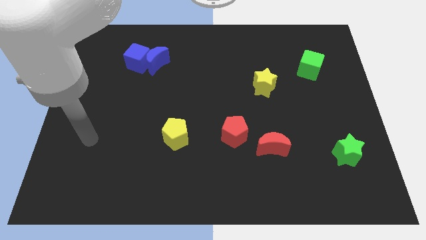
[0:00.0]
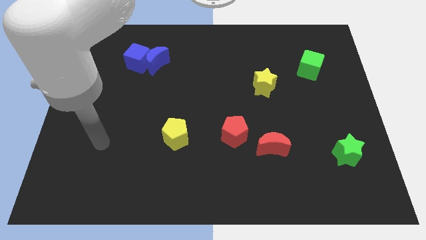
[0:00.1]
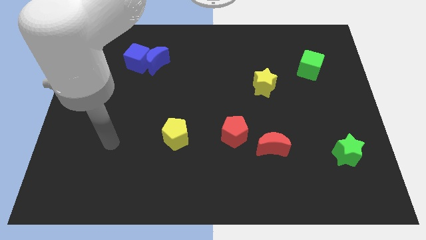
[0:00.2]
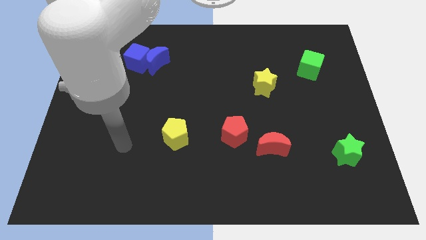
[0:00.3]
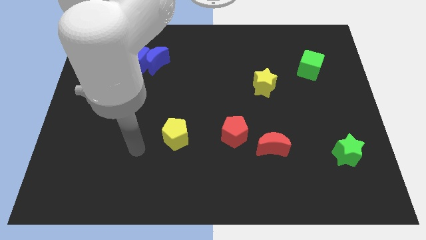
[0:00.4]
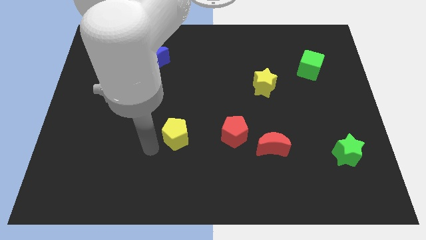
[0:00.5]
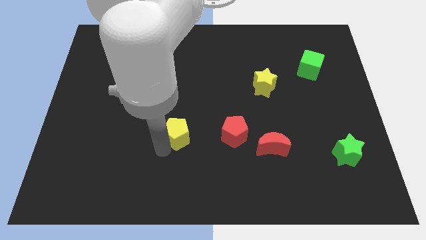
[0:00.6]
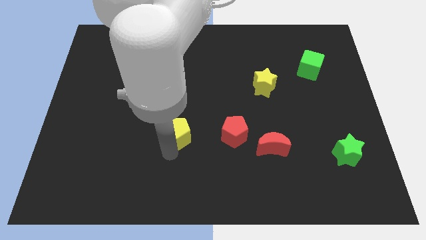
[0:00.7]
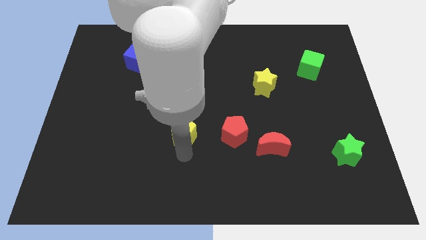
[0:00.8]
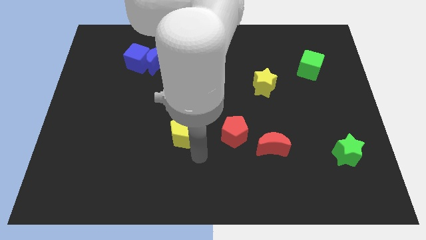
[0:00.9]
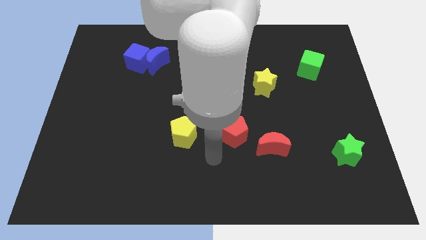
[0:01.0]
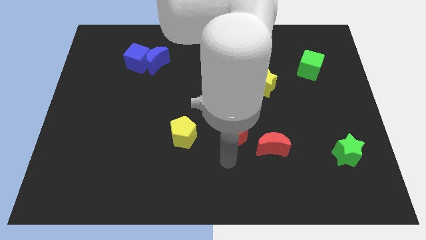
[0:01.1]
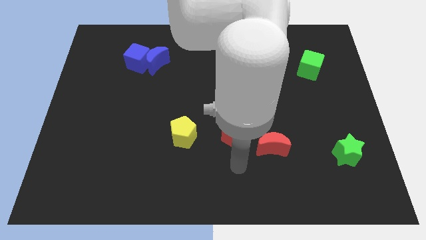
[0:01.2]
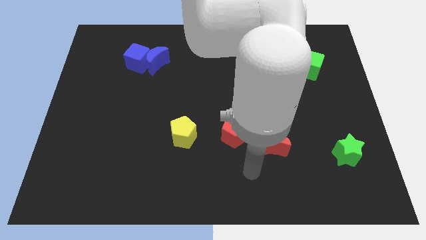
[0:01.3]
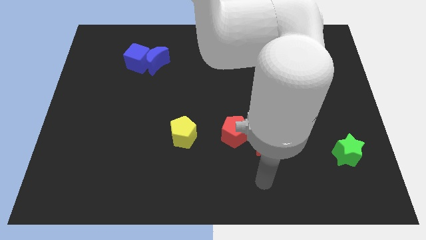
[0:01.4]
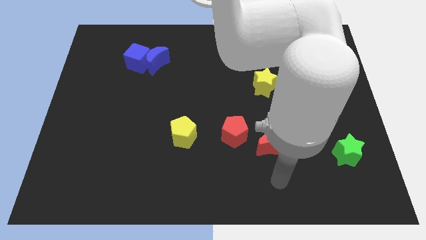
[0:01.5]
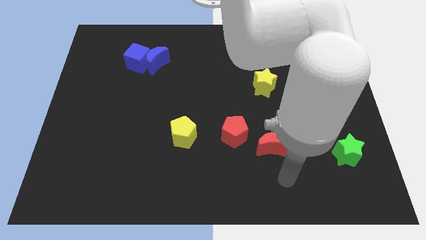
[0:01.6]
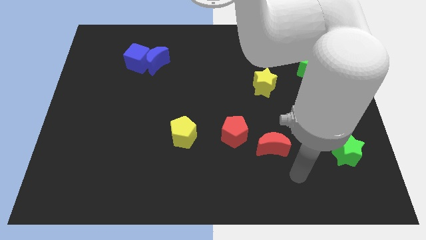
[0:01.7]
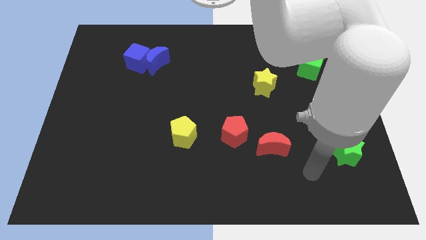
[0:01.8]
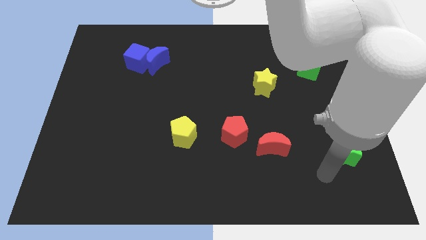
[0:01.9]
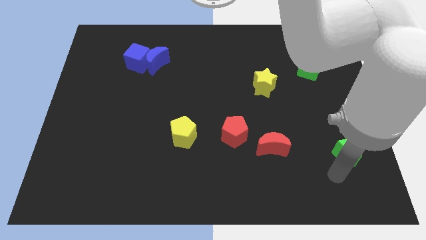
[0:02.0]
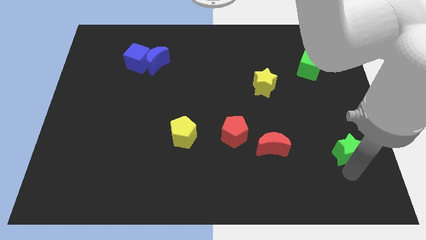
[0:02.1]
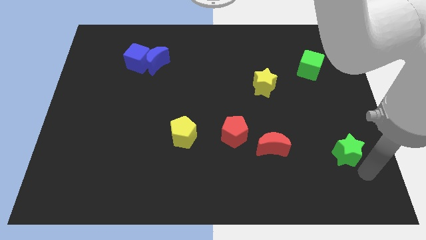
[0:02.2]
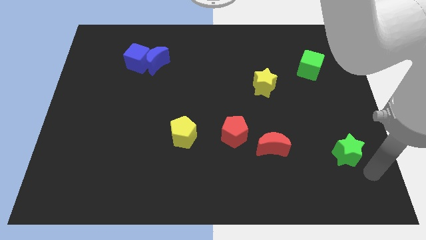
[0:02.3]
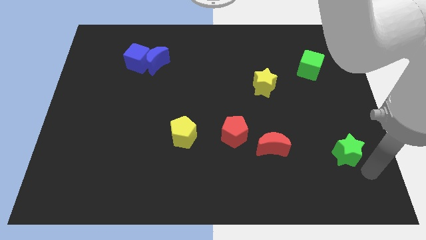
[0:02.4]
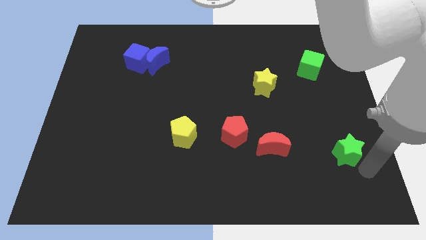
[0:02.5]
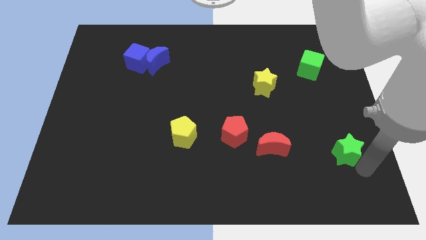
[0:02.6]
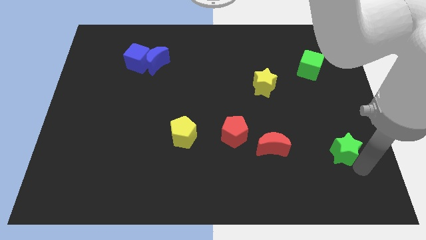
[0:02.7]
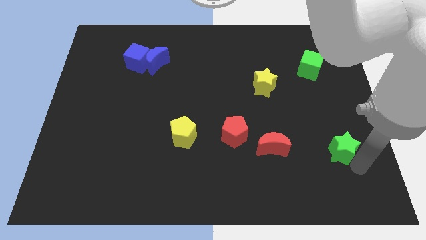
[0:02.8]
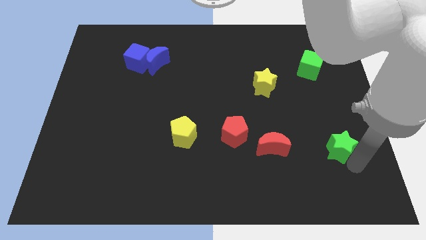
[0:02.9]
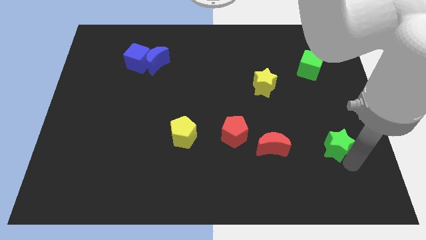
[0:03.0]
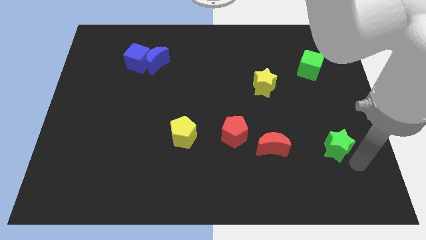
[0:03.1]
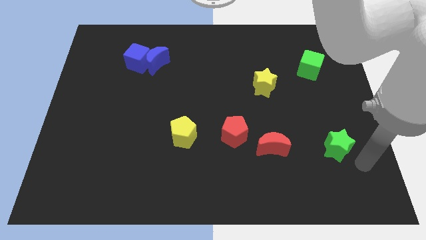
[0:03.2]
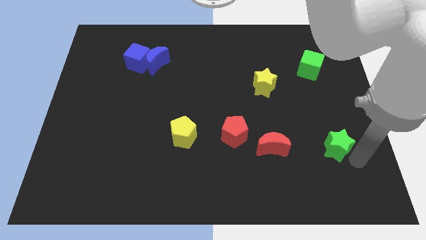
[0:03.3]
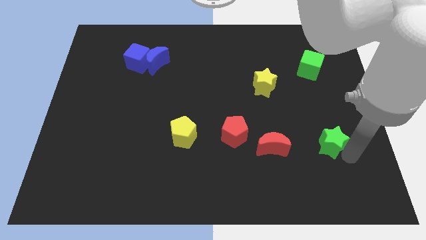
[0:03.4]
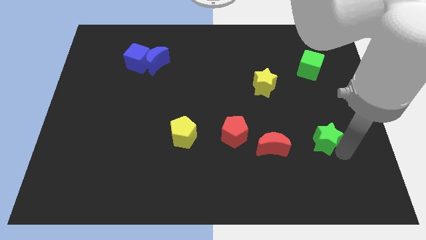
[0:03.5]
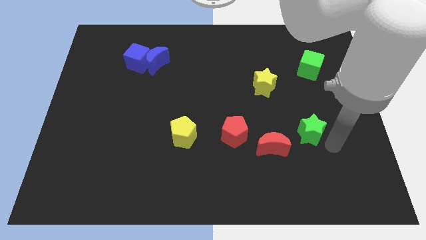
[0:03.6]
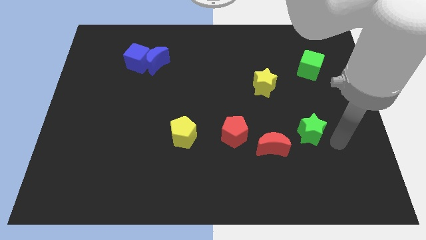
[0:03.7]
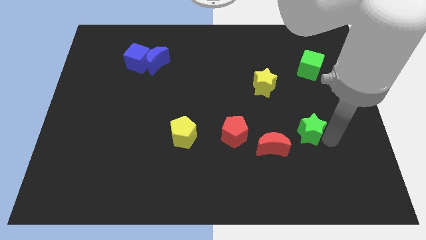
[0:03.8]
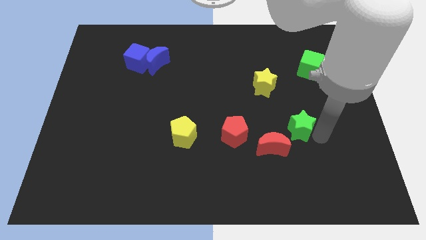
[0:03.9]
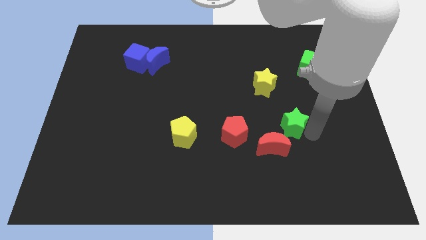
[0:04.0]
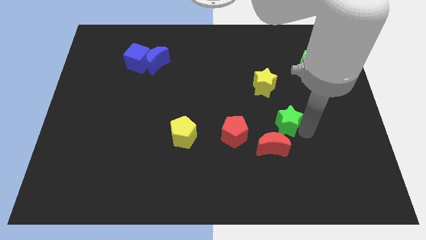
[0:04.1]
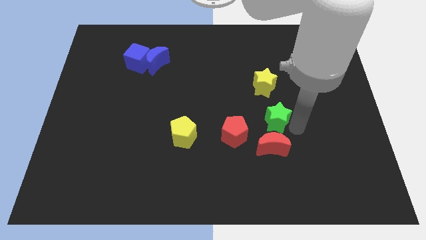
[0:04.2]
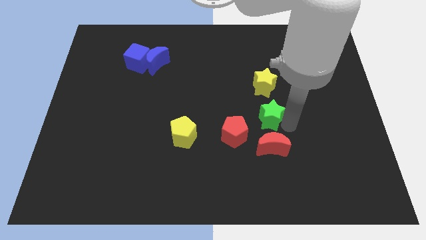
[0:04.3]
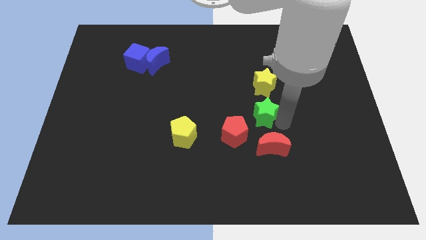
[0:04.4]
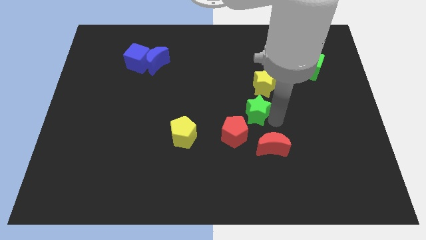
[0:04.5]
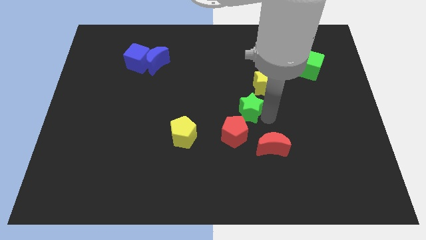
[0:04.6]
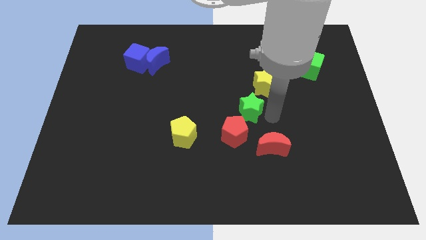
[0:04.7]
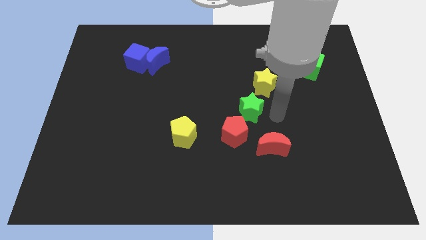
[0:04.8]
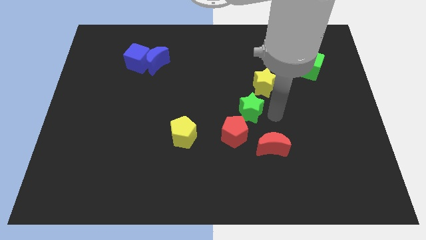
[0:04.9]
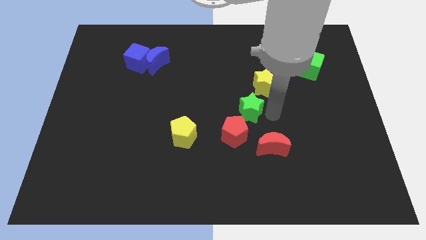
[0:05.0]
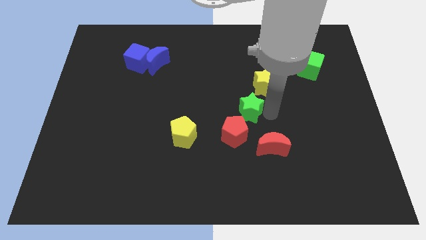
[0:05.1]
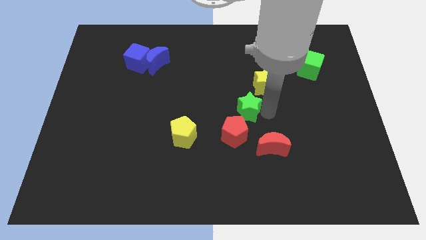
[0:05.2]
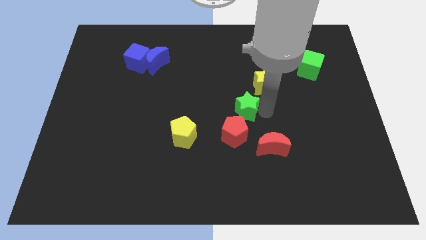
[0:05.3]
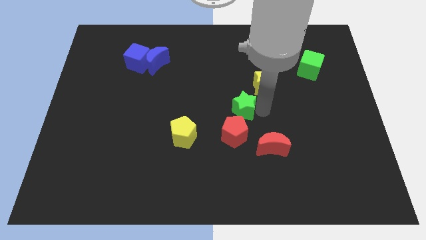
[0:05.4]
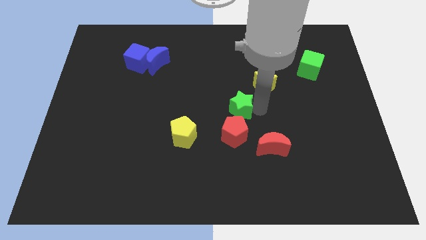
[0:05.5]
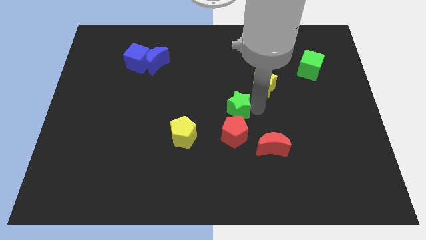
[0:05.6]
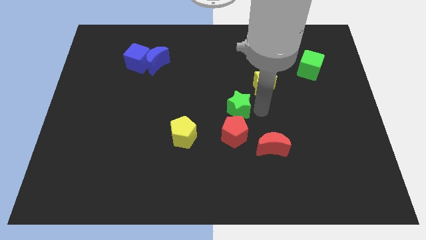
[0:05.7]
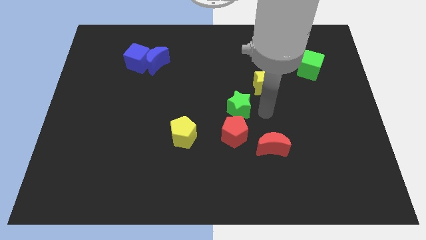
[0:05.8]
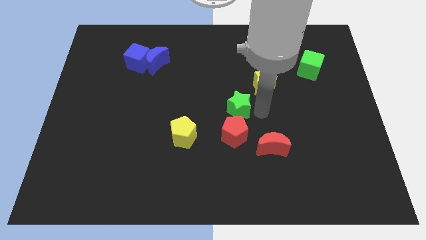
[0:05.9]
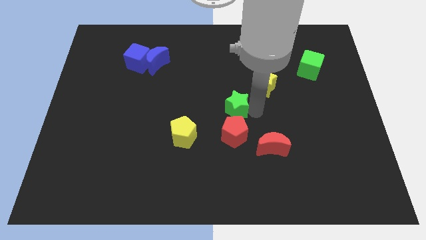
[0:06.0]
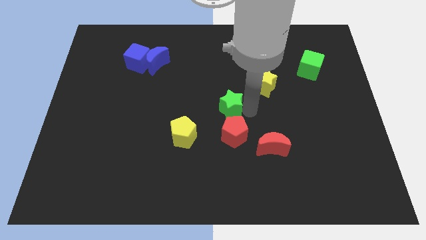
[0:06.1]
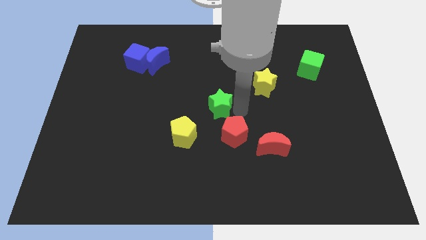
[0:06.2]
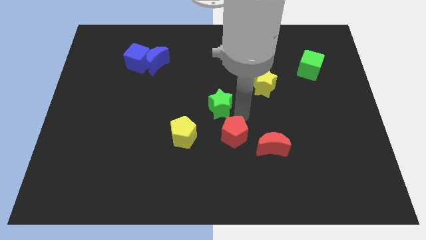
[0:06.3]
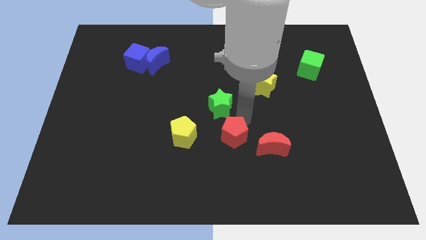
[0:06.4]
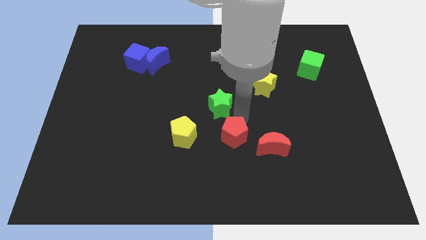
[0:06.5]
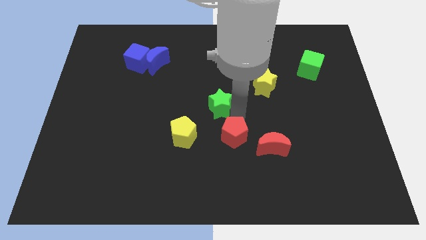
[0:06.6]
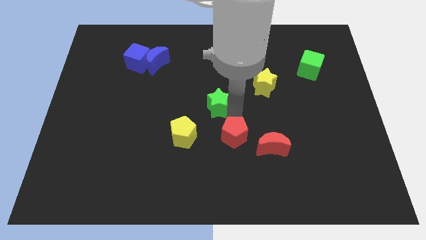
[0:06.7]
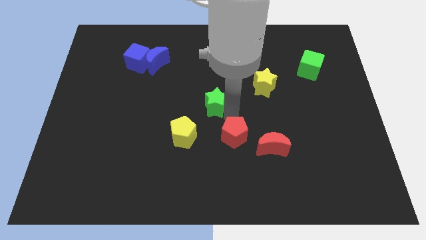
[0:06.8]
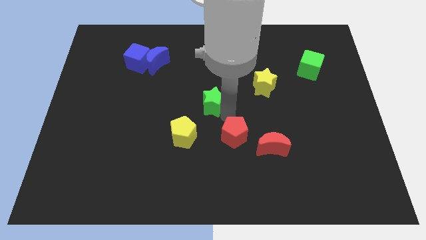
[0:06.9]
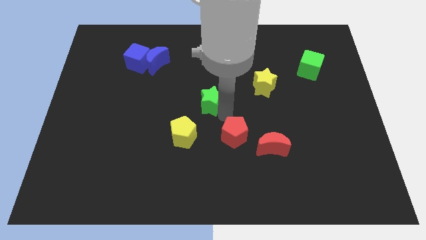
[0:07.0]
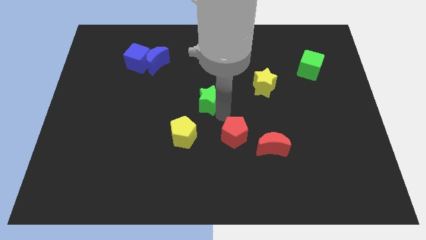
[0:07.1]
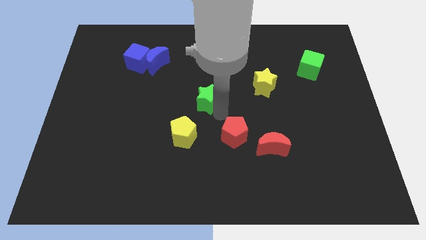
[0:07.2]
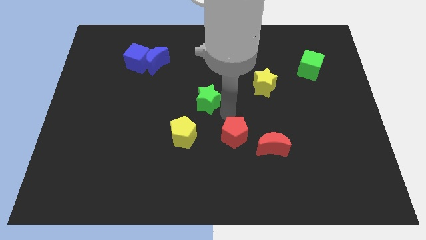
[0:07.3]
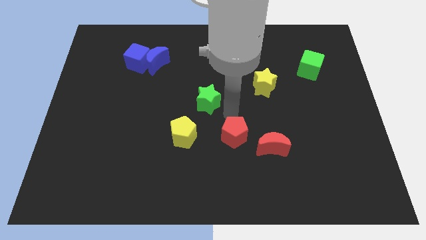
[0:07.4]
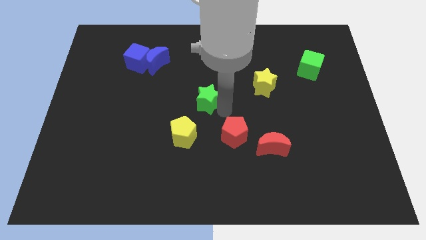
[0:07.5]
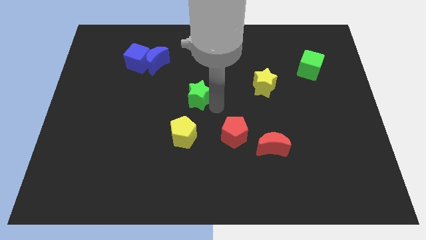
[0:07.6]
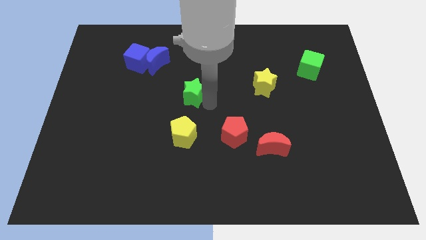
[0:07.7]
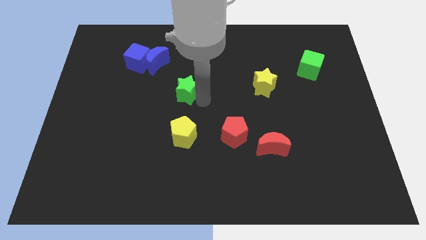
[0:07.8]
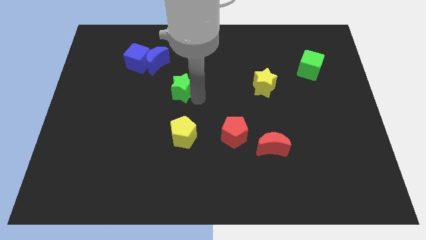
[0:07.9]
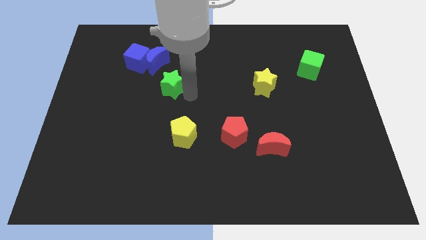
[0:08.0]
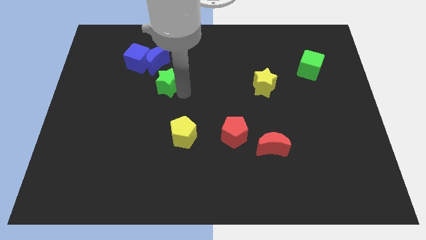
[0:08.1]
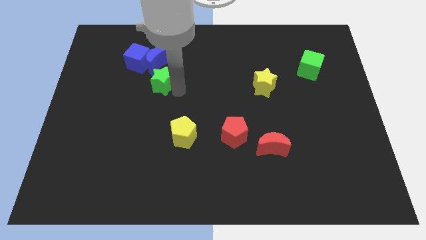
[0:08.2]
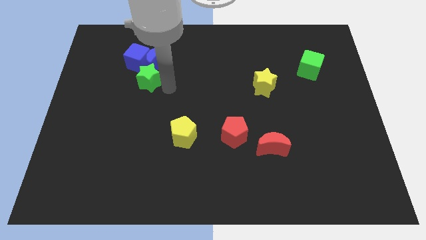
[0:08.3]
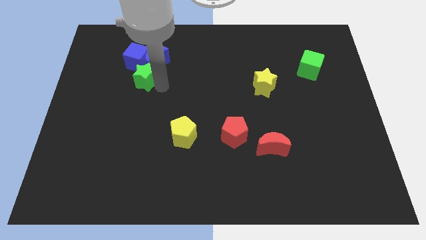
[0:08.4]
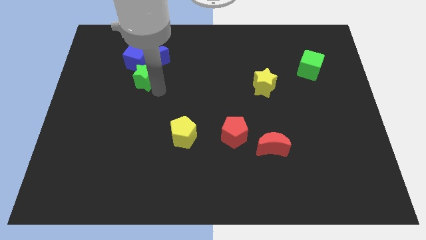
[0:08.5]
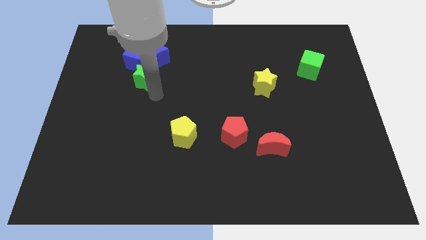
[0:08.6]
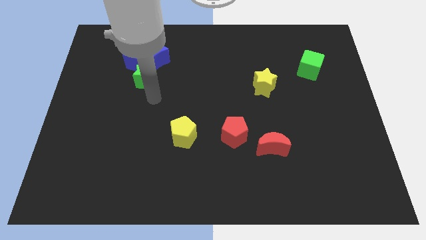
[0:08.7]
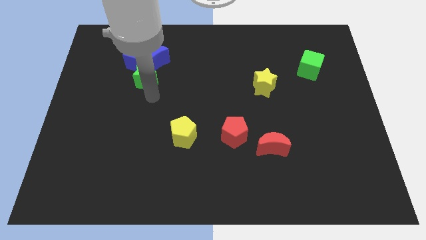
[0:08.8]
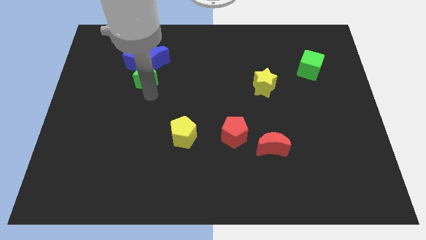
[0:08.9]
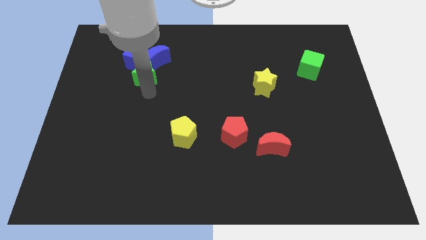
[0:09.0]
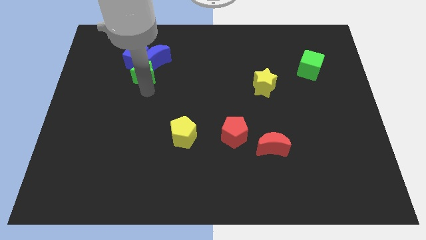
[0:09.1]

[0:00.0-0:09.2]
put the green star close to the blue cube
